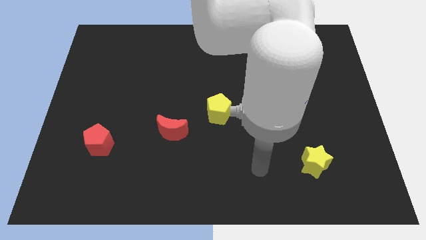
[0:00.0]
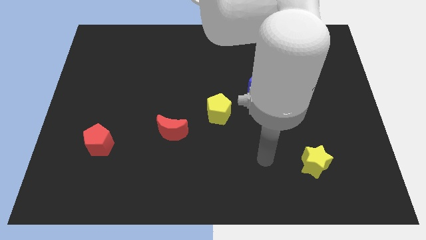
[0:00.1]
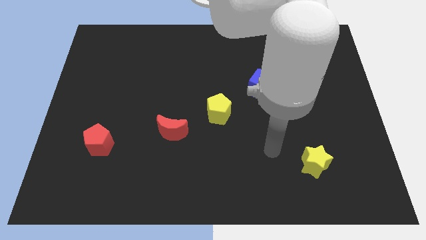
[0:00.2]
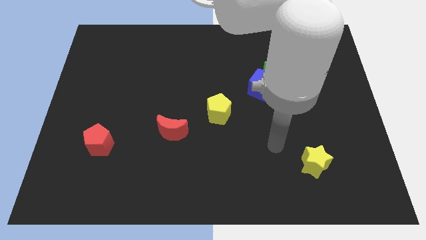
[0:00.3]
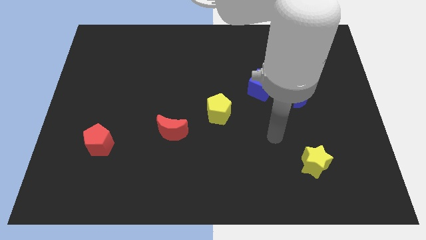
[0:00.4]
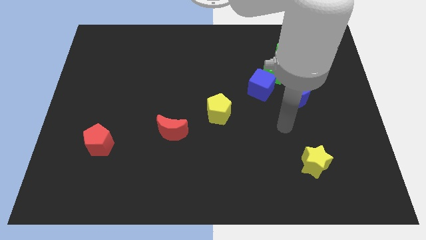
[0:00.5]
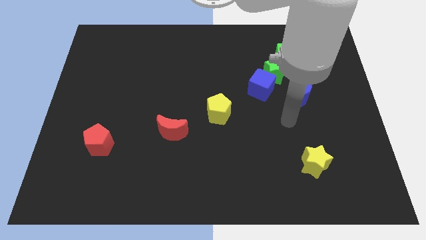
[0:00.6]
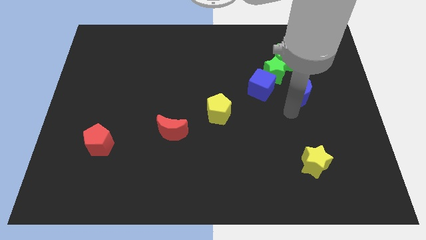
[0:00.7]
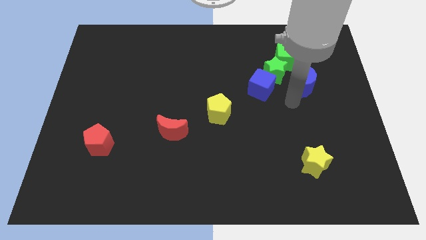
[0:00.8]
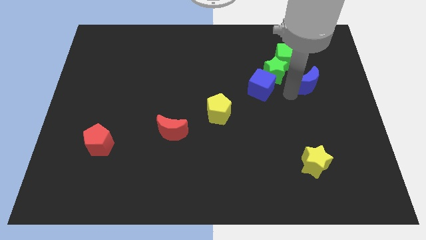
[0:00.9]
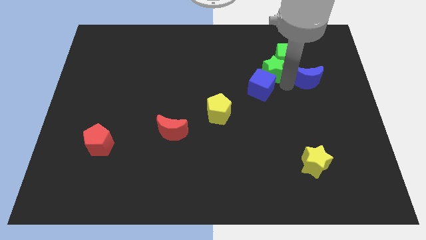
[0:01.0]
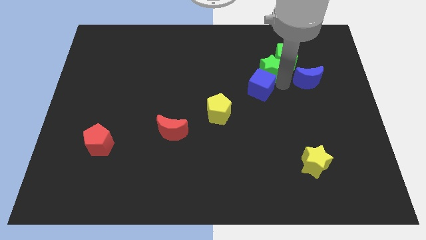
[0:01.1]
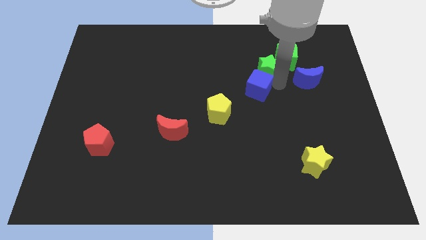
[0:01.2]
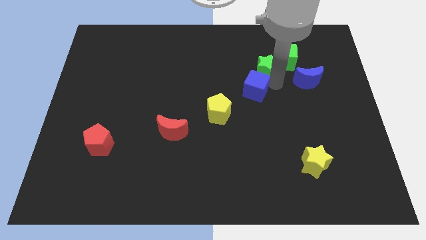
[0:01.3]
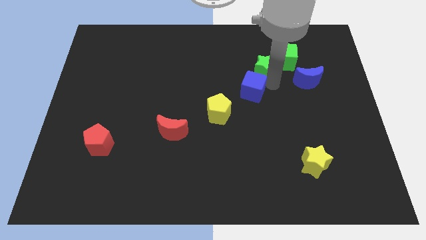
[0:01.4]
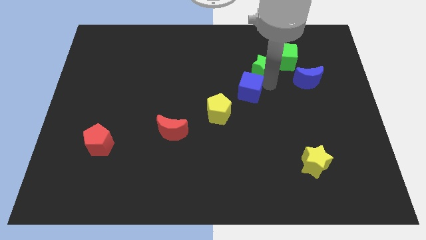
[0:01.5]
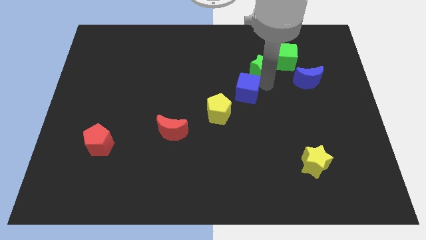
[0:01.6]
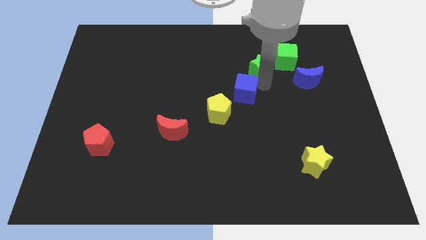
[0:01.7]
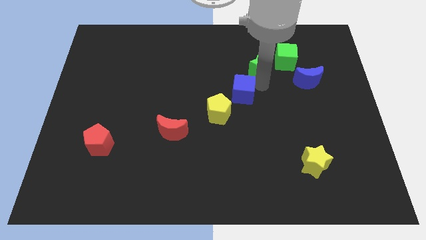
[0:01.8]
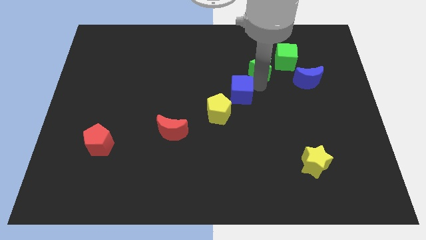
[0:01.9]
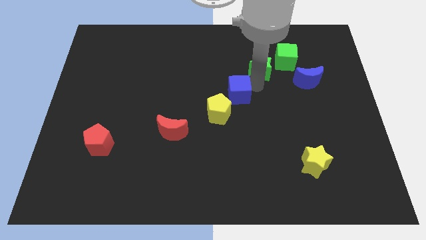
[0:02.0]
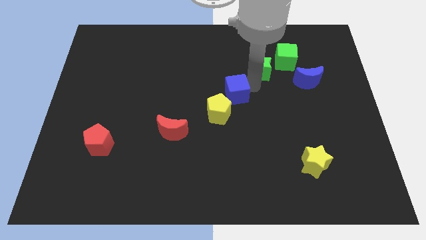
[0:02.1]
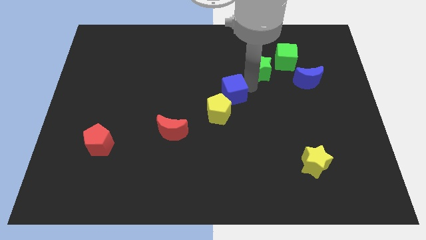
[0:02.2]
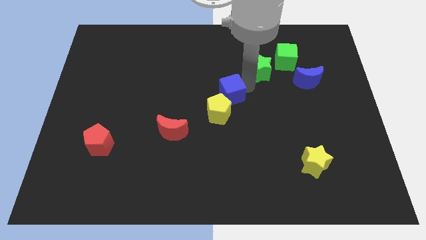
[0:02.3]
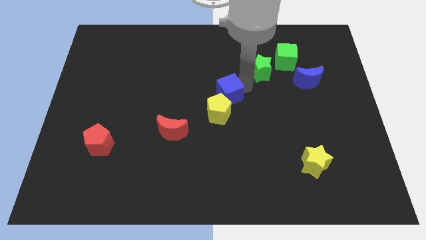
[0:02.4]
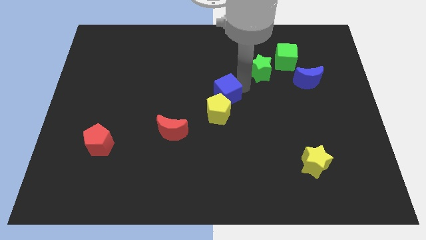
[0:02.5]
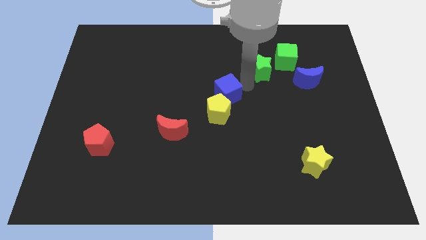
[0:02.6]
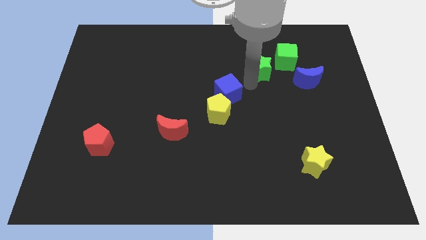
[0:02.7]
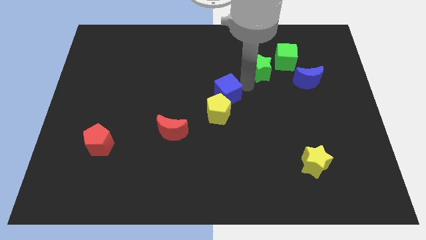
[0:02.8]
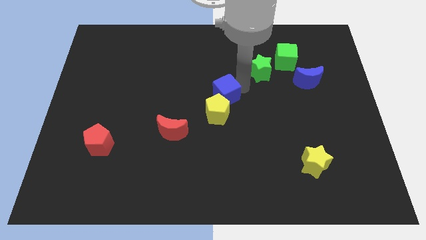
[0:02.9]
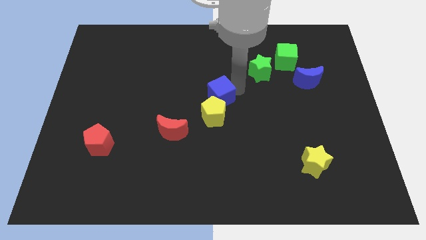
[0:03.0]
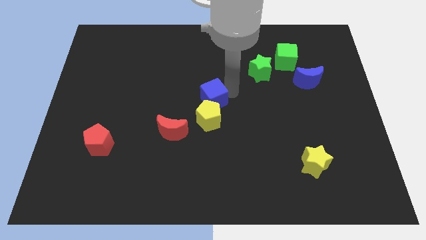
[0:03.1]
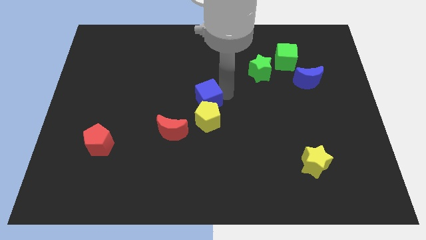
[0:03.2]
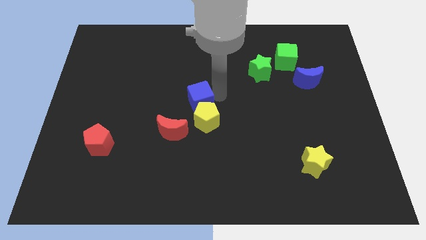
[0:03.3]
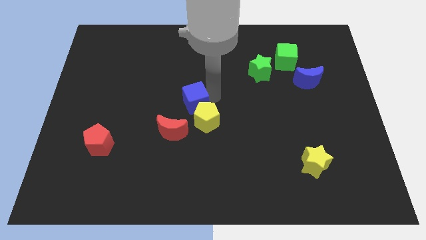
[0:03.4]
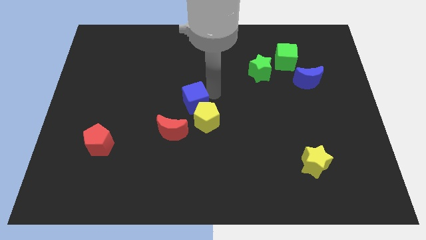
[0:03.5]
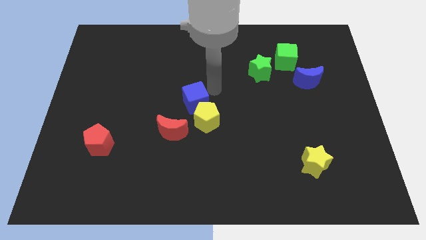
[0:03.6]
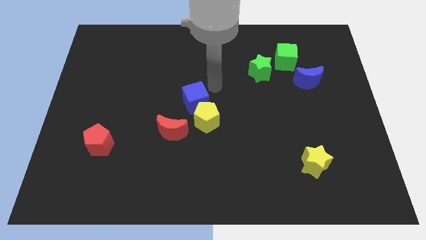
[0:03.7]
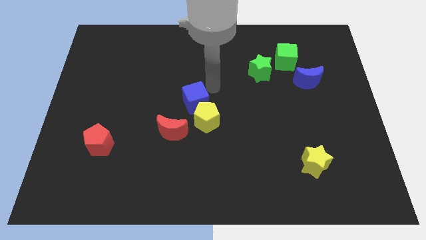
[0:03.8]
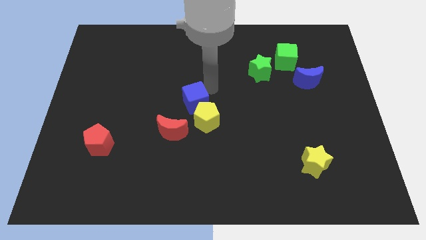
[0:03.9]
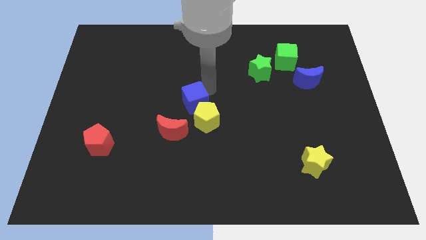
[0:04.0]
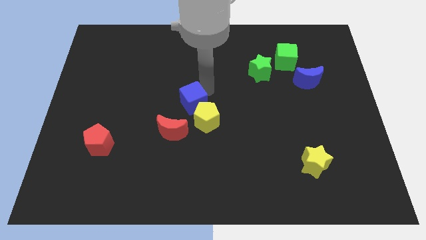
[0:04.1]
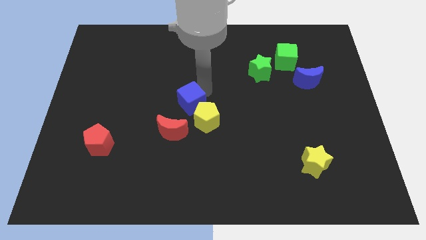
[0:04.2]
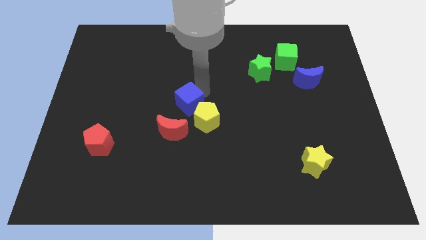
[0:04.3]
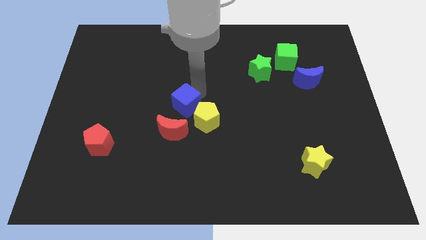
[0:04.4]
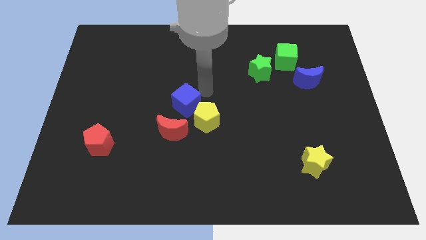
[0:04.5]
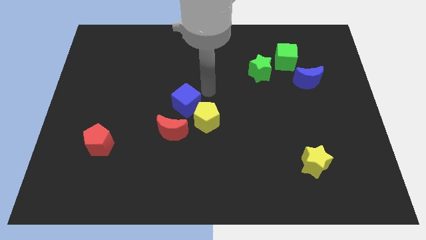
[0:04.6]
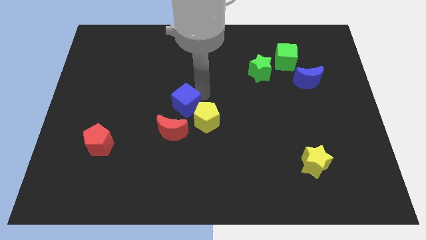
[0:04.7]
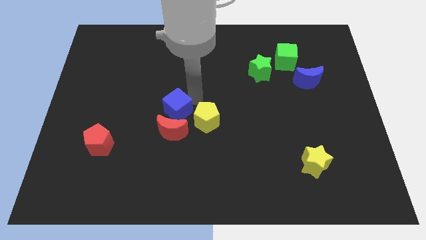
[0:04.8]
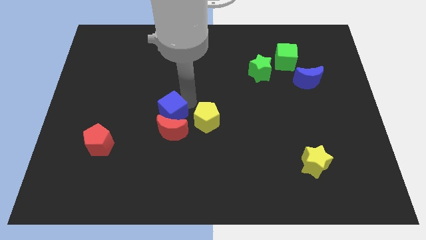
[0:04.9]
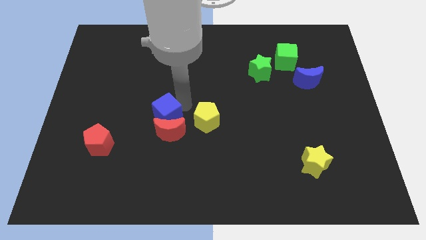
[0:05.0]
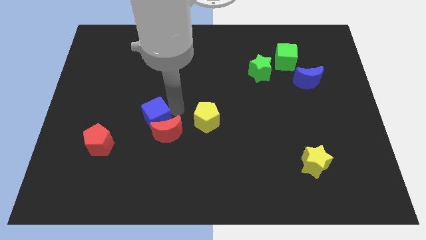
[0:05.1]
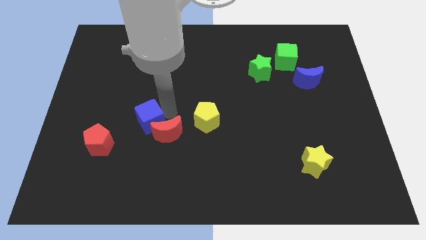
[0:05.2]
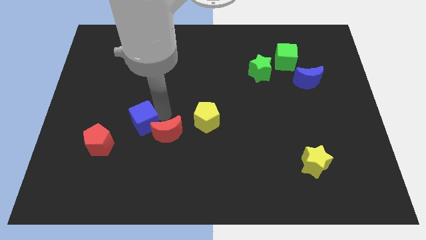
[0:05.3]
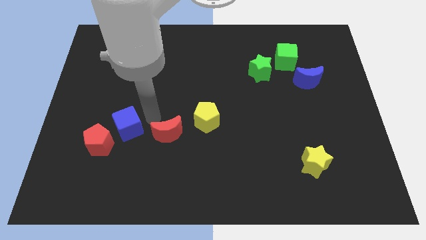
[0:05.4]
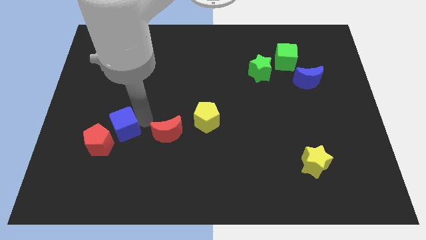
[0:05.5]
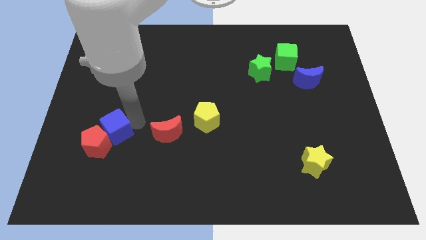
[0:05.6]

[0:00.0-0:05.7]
move the blue cube next to the red pentagon

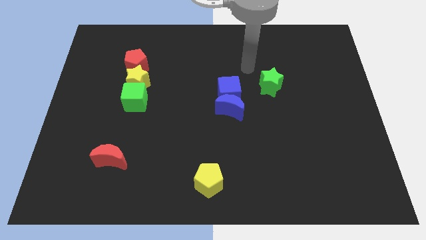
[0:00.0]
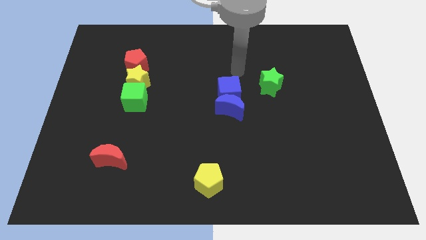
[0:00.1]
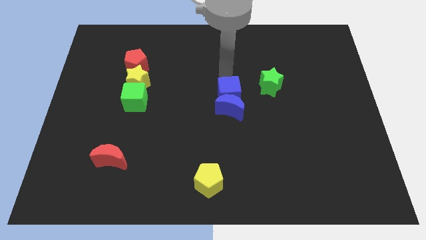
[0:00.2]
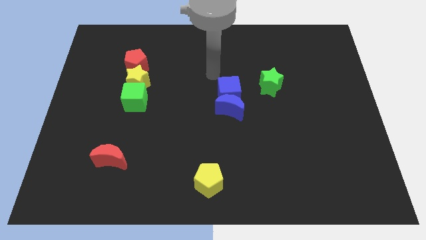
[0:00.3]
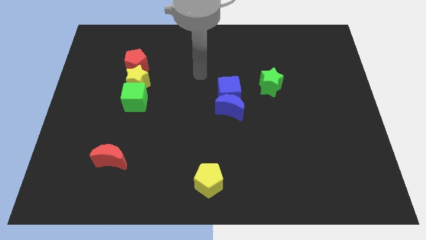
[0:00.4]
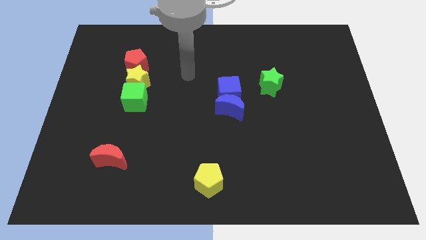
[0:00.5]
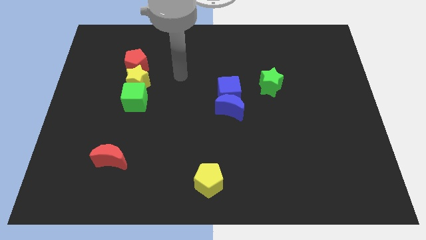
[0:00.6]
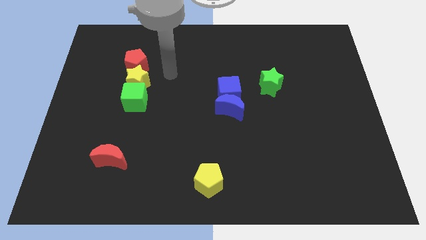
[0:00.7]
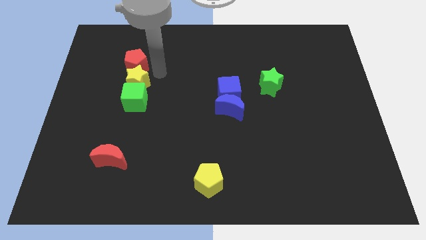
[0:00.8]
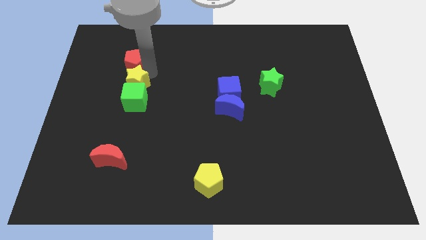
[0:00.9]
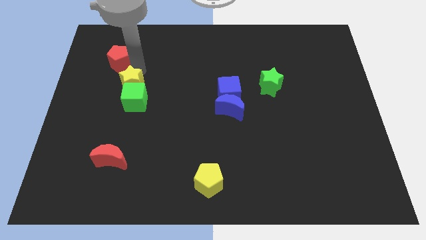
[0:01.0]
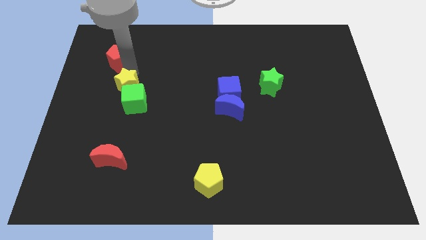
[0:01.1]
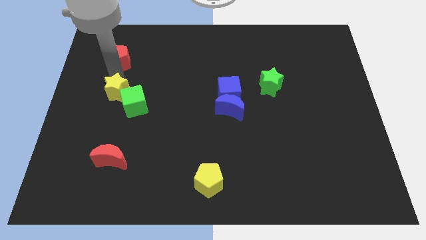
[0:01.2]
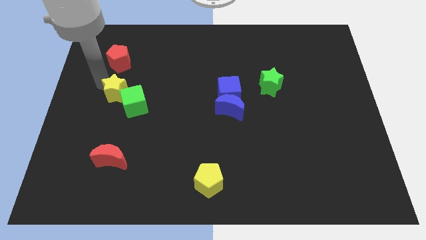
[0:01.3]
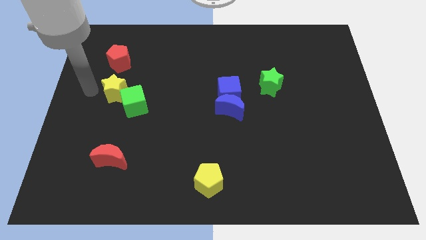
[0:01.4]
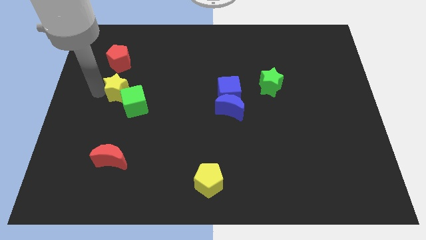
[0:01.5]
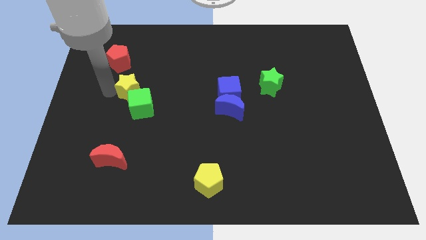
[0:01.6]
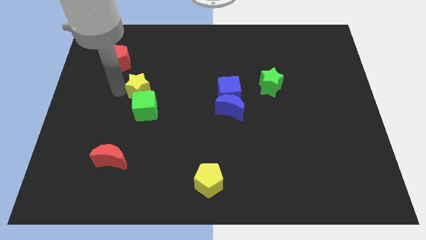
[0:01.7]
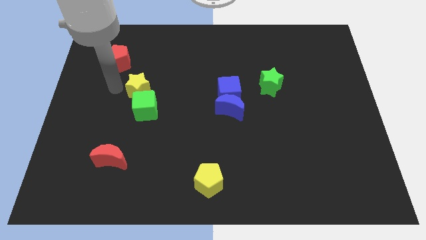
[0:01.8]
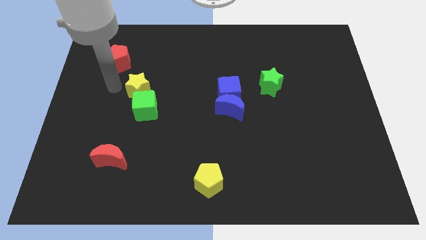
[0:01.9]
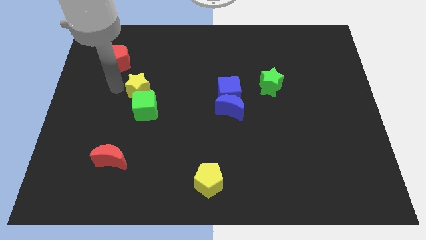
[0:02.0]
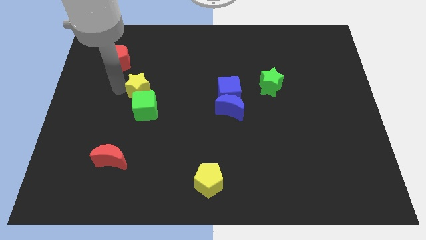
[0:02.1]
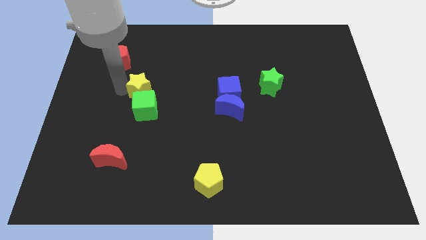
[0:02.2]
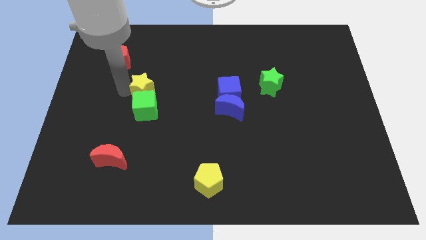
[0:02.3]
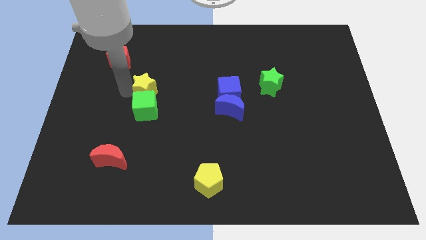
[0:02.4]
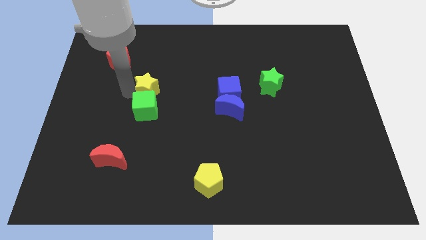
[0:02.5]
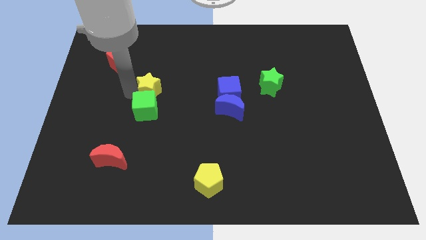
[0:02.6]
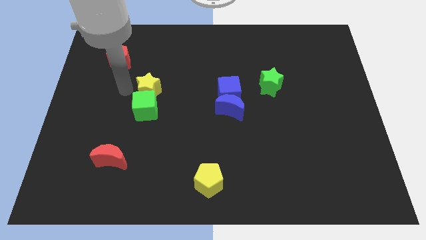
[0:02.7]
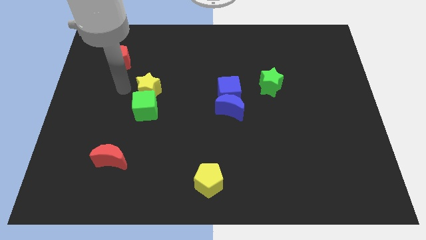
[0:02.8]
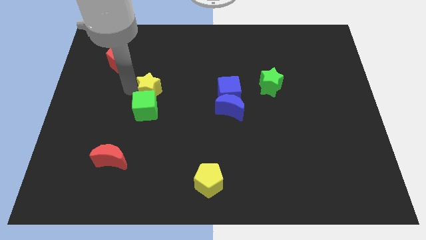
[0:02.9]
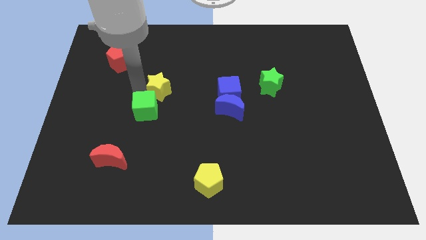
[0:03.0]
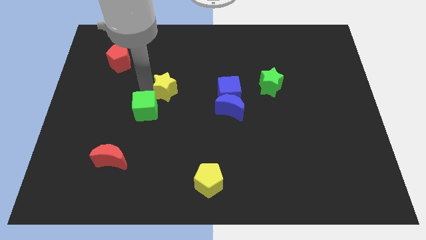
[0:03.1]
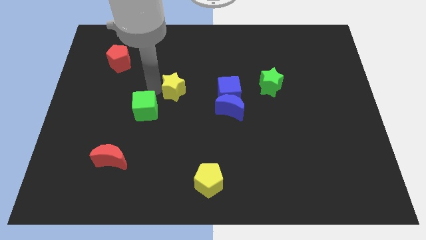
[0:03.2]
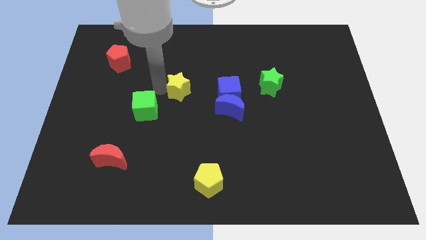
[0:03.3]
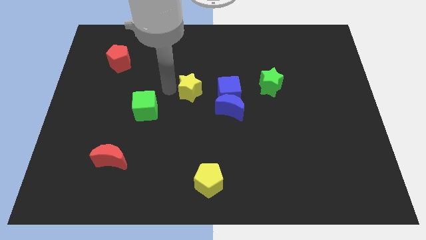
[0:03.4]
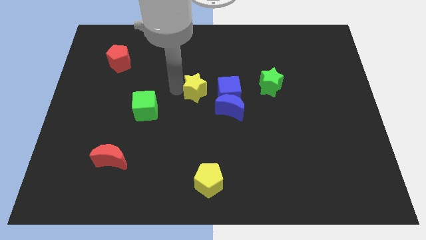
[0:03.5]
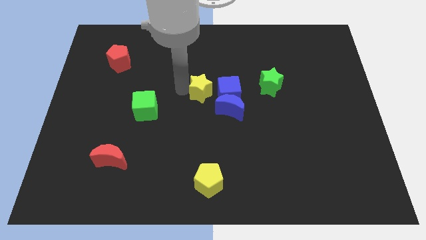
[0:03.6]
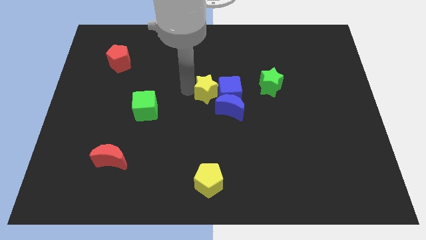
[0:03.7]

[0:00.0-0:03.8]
push the yellow star close to the blue cube
